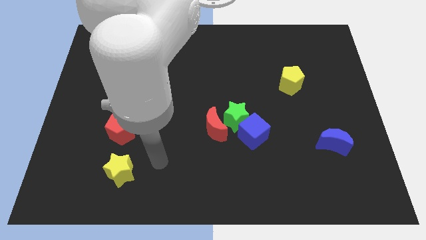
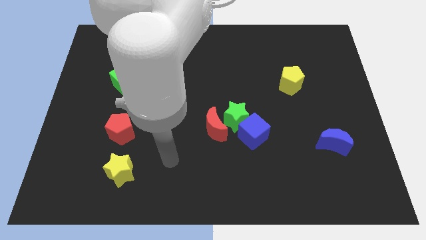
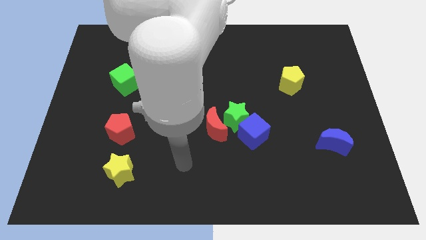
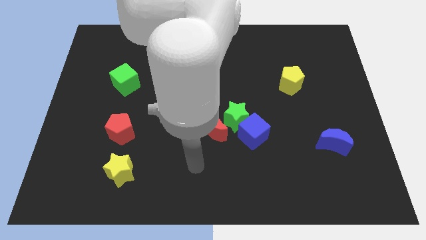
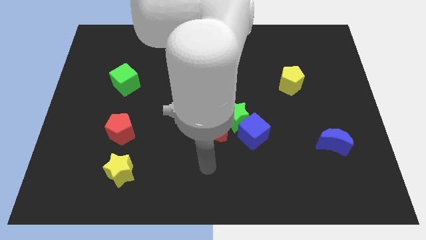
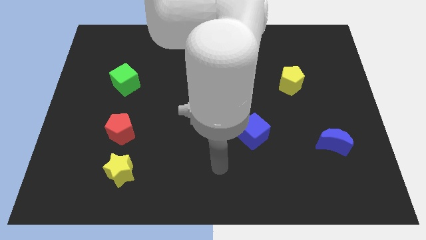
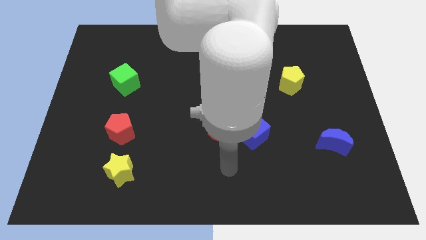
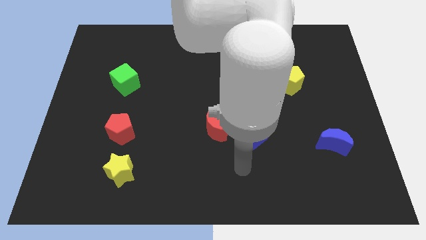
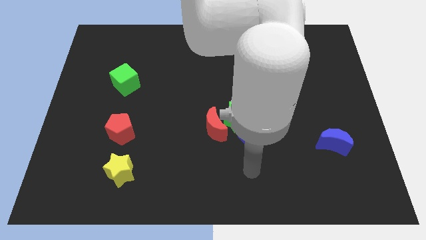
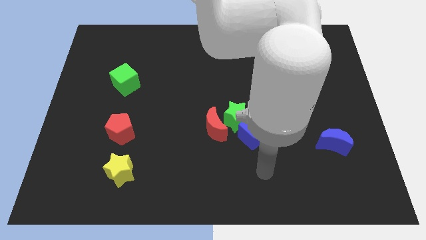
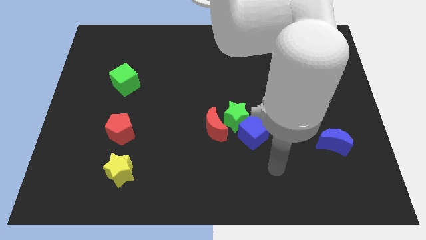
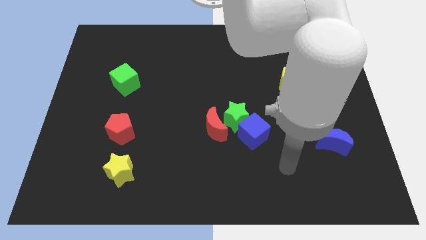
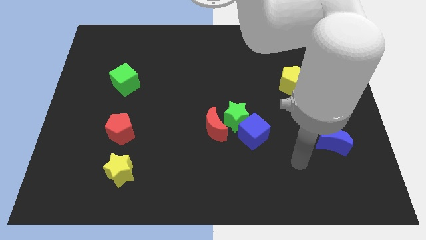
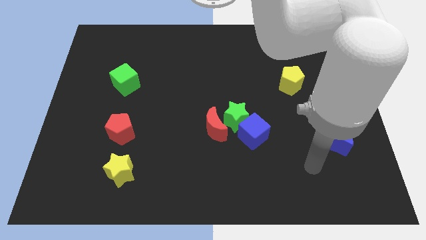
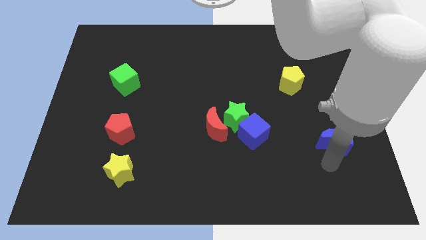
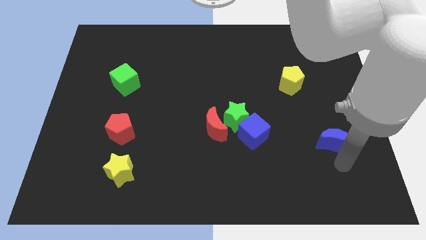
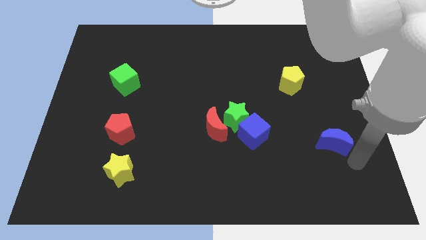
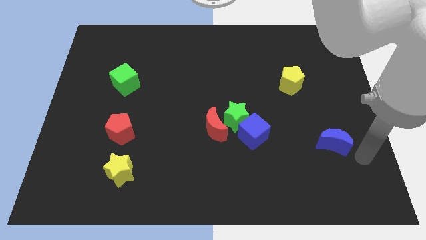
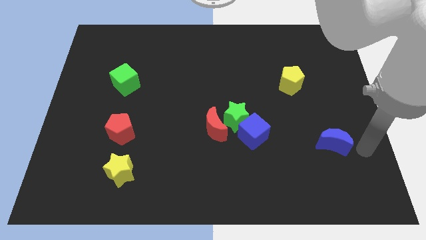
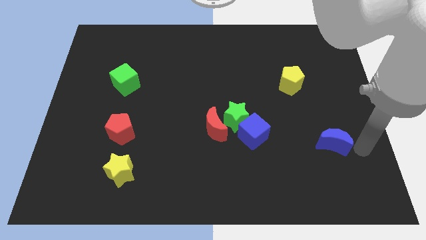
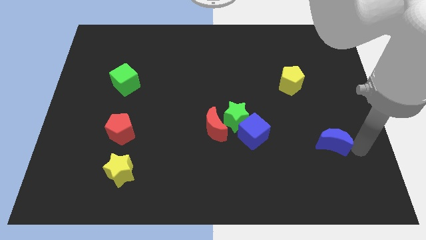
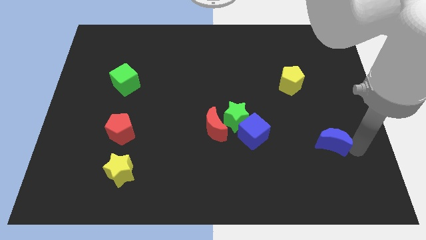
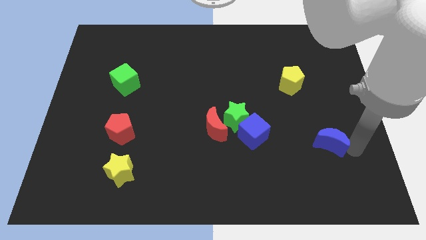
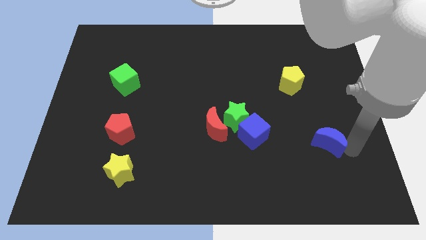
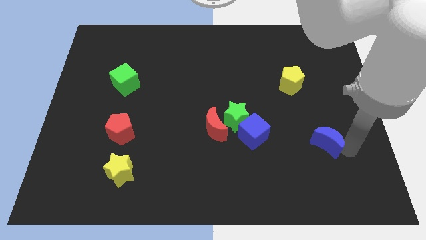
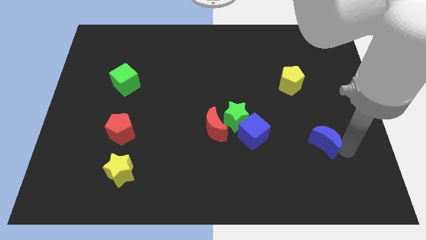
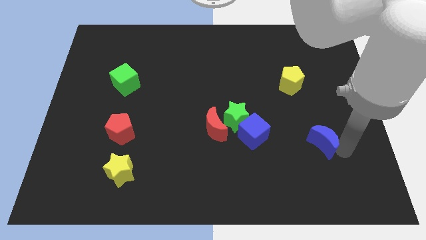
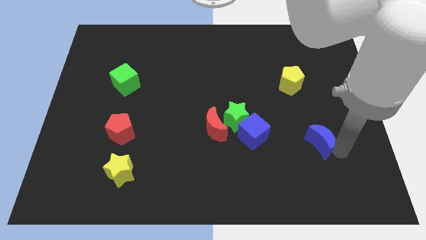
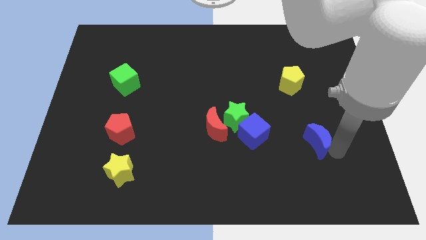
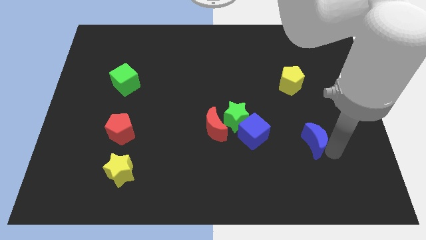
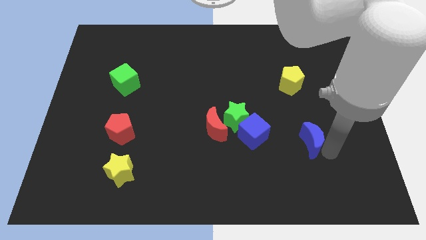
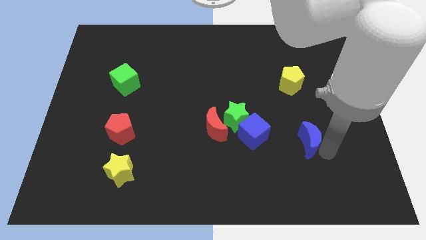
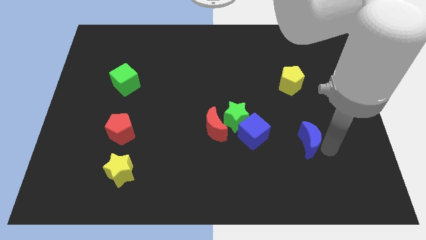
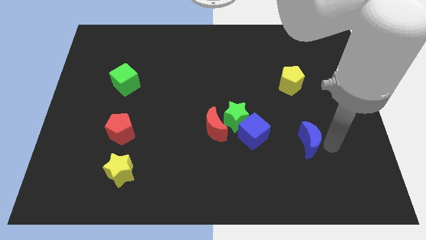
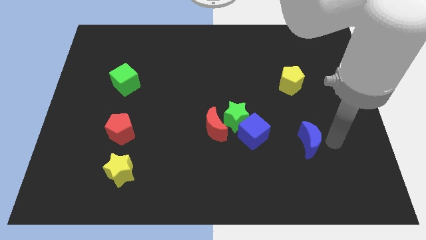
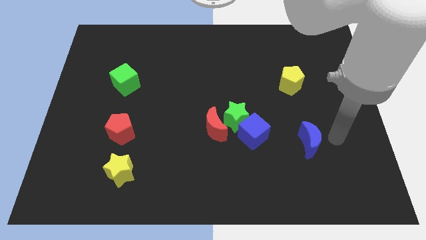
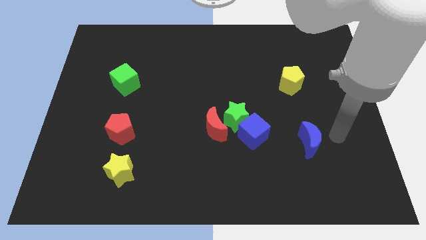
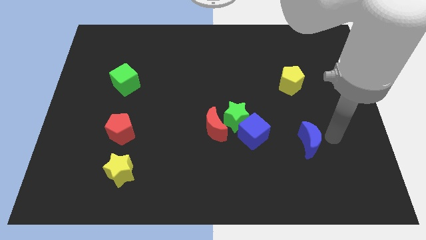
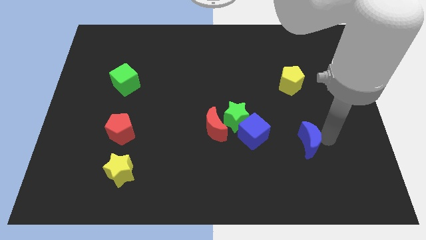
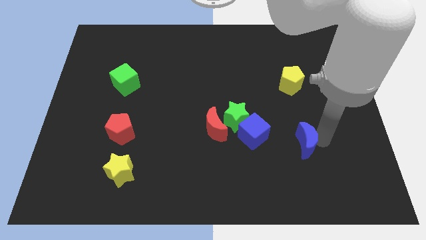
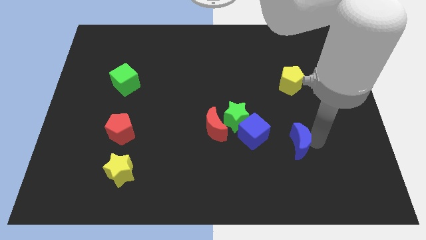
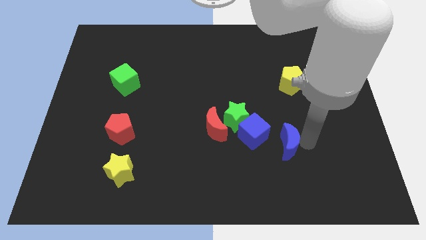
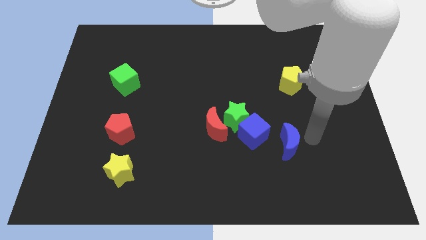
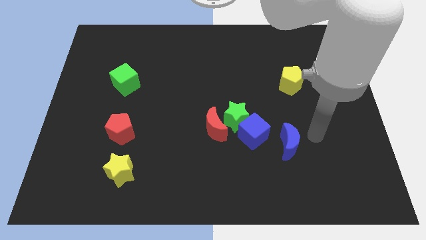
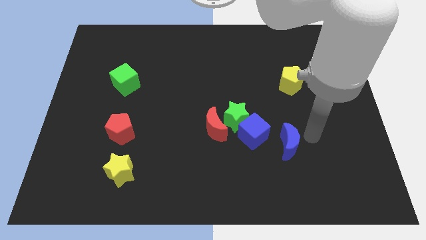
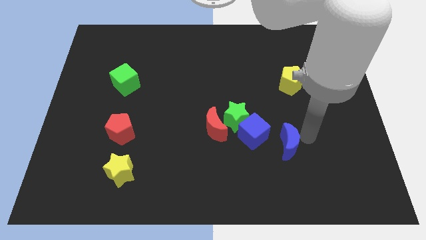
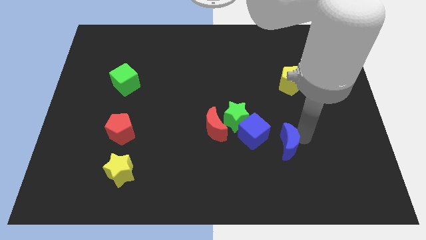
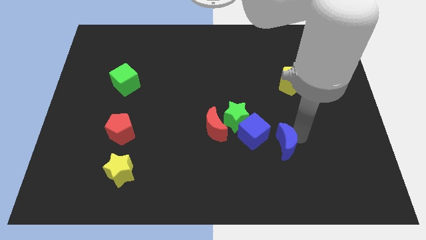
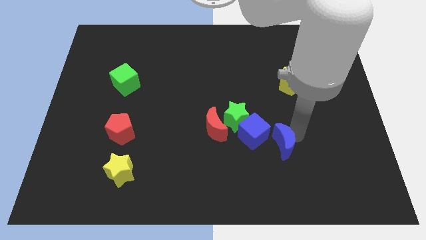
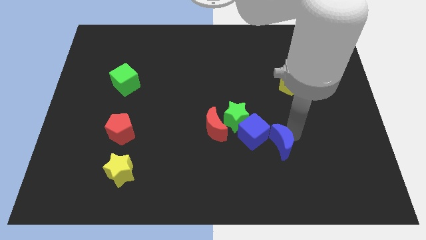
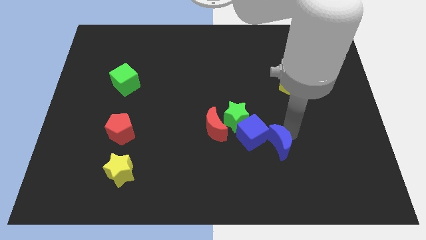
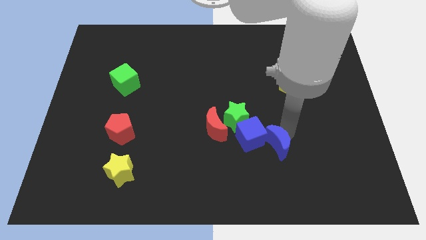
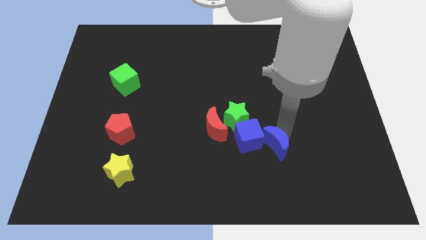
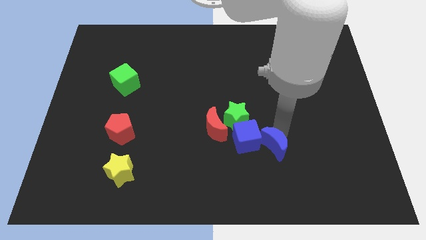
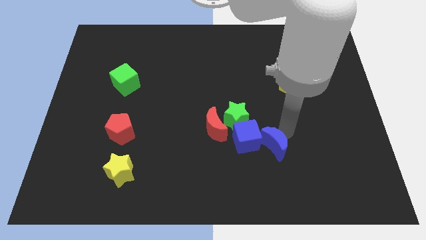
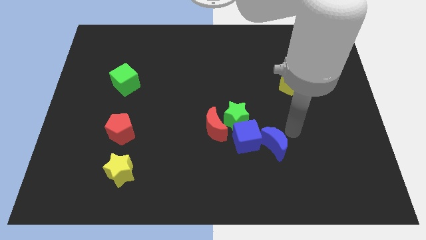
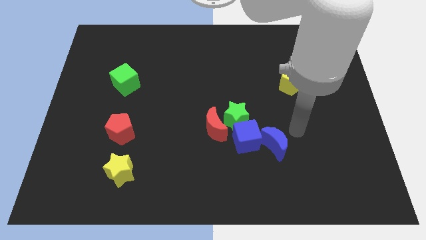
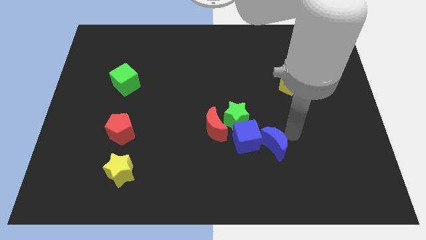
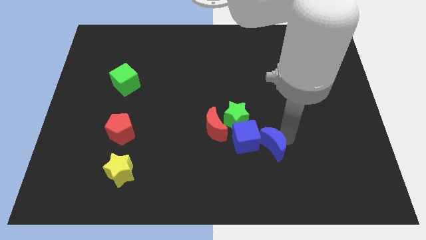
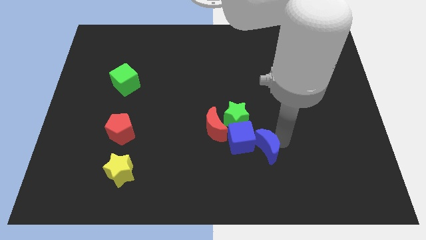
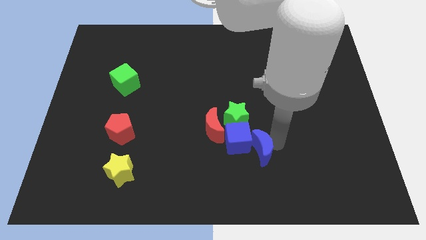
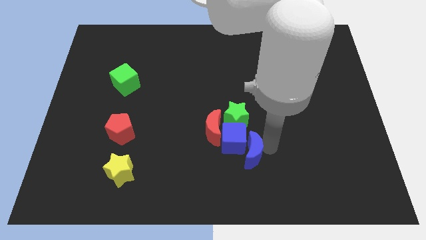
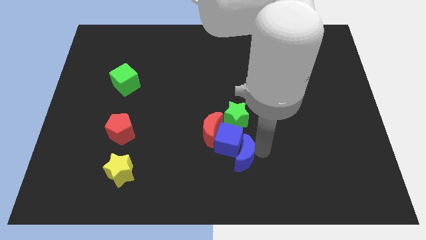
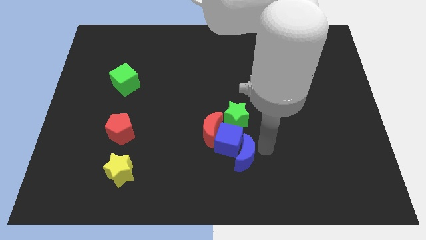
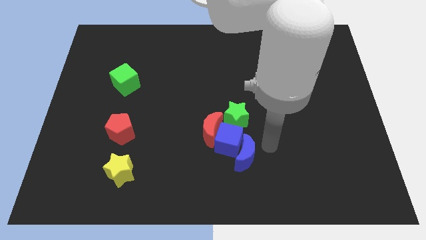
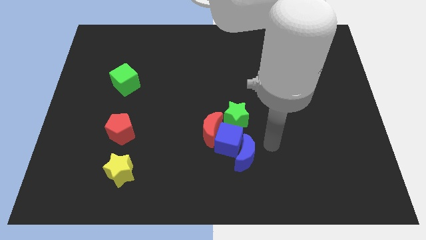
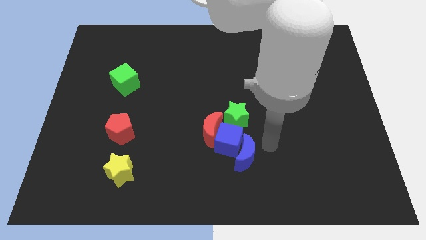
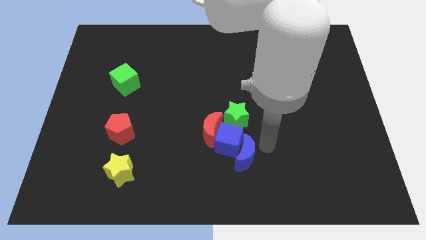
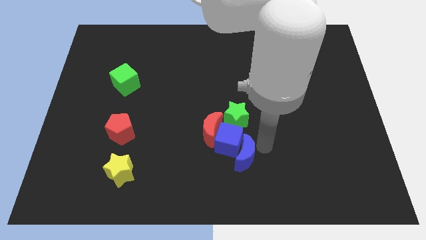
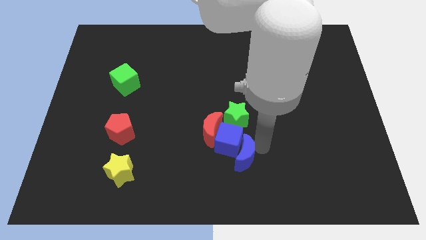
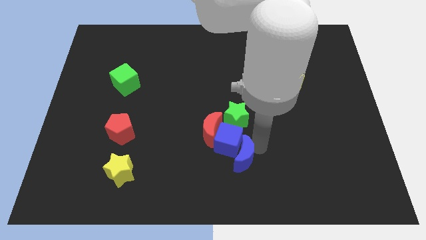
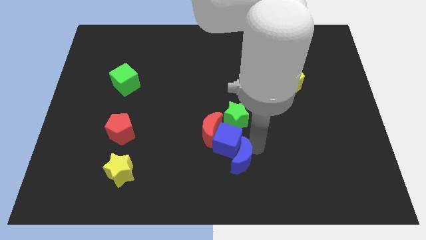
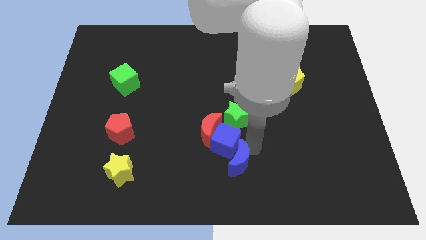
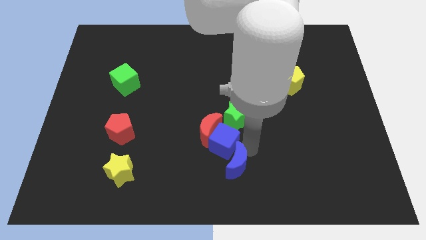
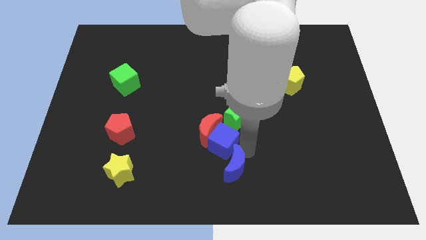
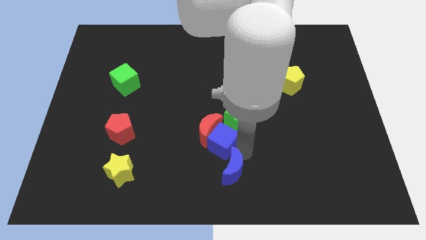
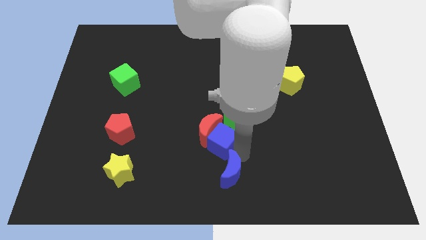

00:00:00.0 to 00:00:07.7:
put the blue moon to the bottom of the red moon
